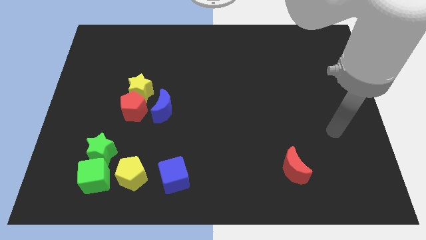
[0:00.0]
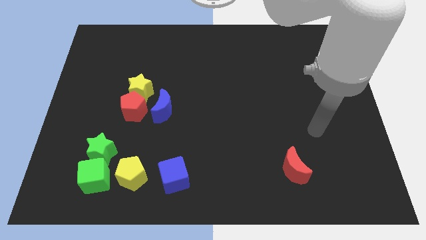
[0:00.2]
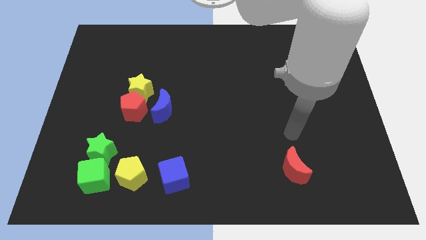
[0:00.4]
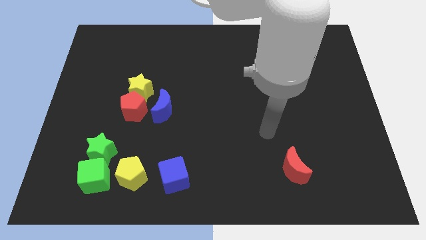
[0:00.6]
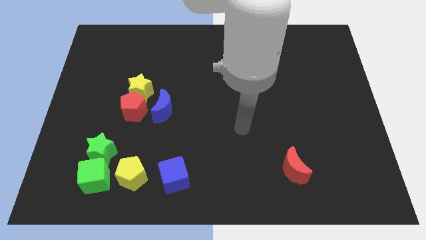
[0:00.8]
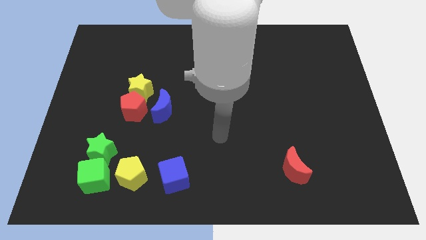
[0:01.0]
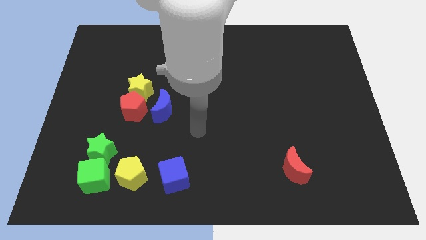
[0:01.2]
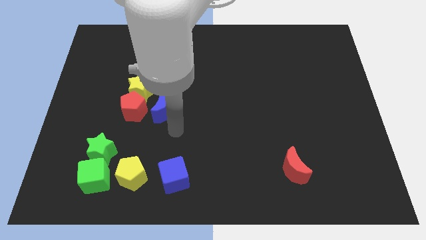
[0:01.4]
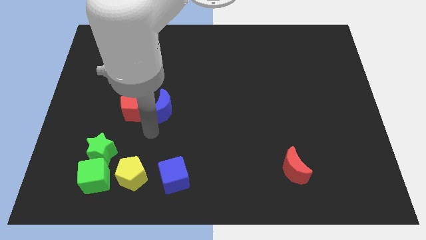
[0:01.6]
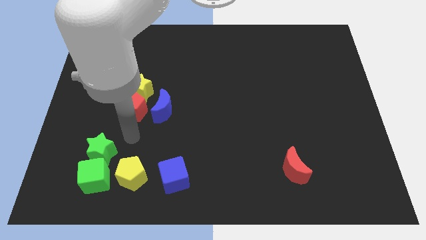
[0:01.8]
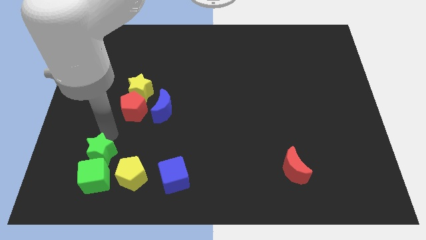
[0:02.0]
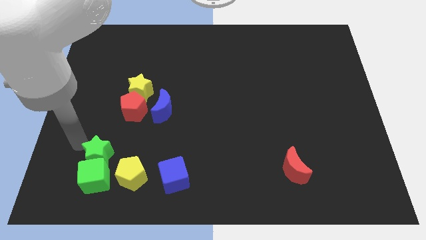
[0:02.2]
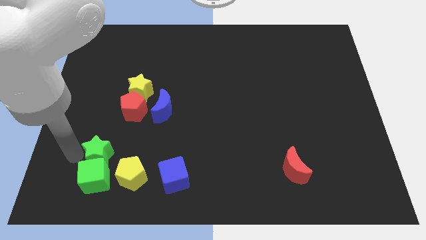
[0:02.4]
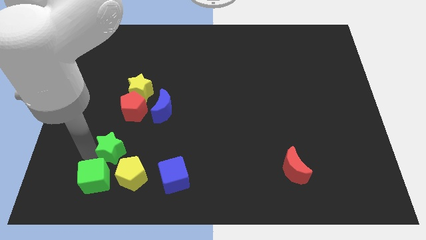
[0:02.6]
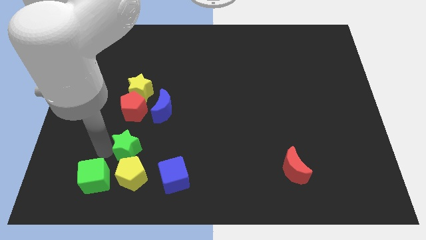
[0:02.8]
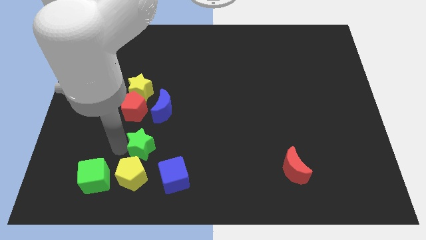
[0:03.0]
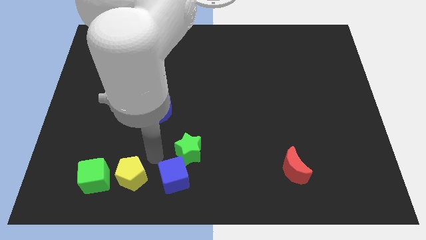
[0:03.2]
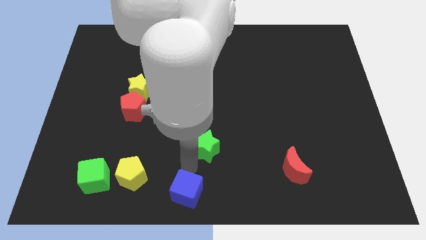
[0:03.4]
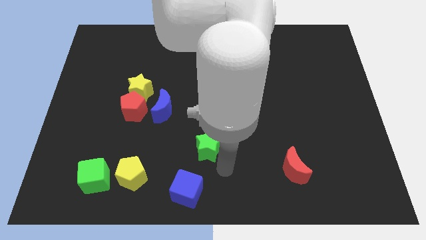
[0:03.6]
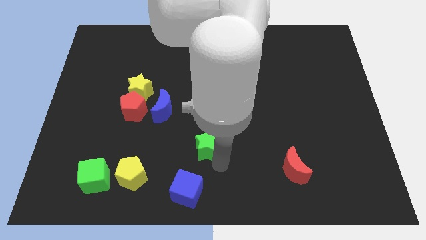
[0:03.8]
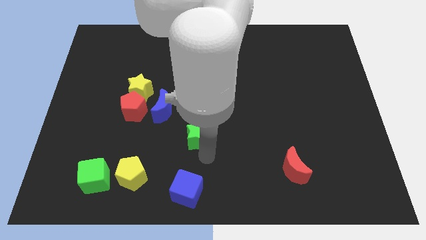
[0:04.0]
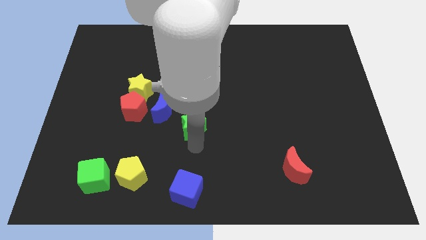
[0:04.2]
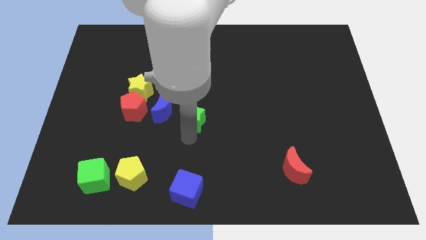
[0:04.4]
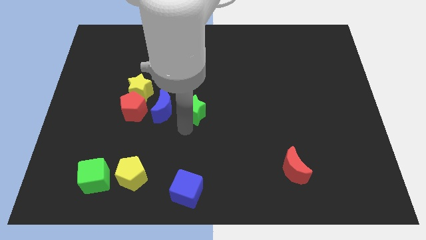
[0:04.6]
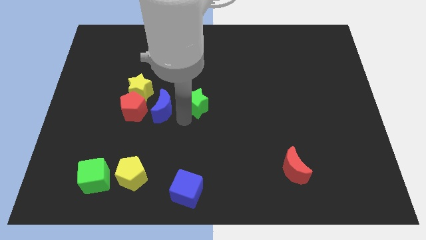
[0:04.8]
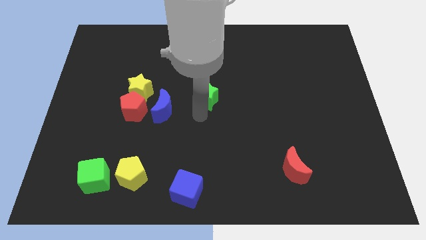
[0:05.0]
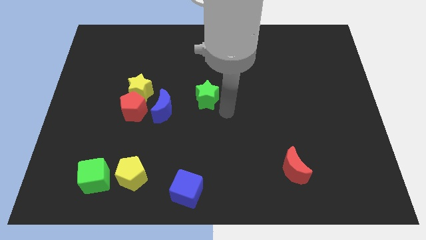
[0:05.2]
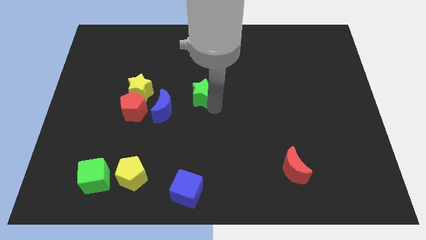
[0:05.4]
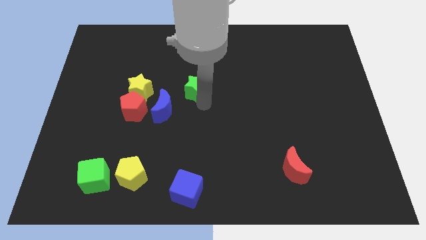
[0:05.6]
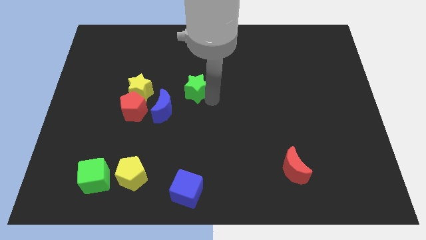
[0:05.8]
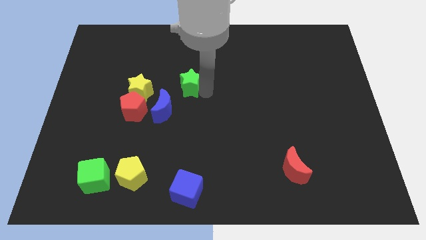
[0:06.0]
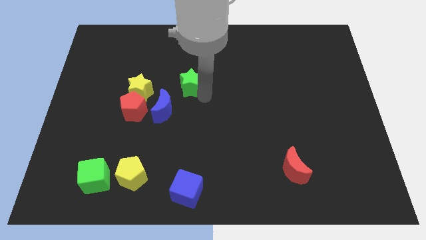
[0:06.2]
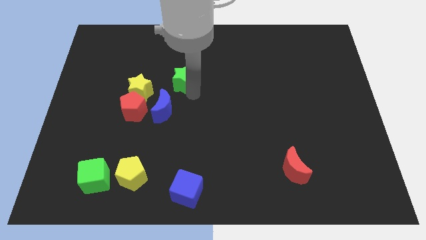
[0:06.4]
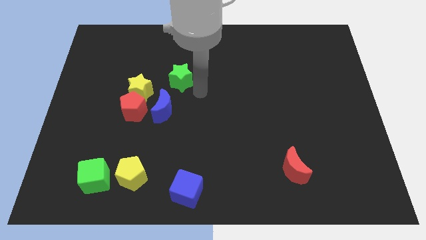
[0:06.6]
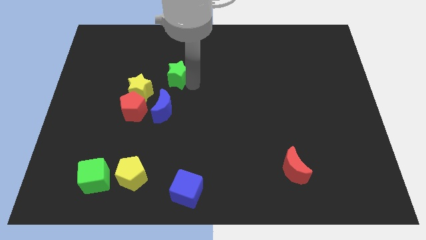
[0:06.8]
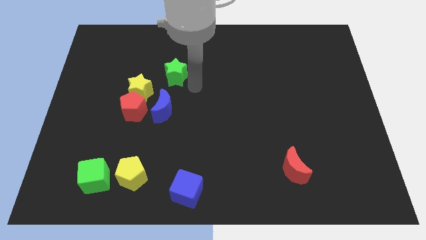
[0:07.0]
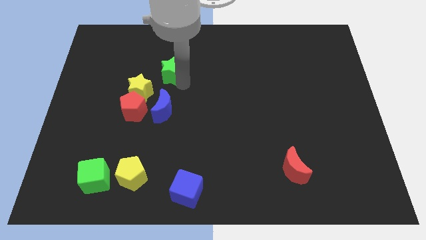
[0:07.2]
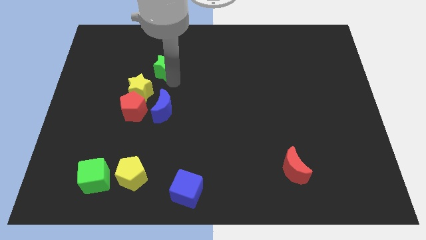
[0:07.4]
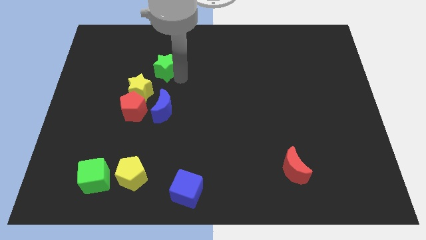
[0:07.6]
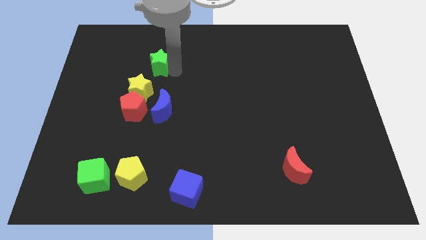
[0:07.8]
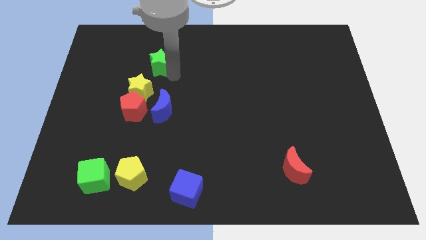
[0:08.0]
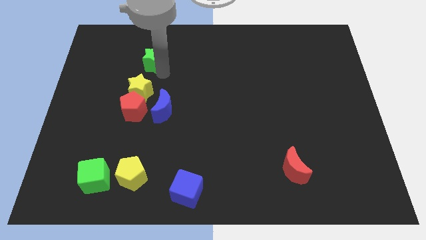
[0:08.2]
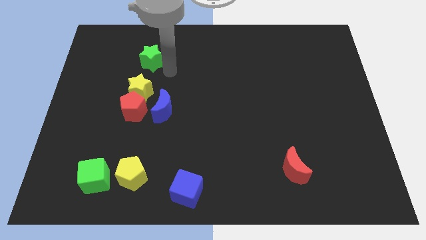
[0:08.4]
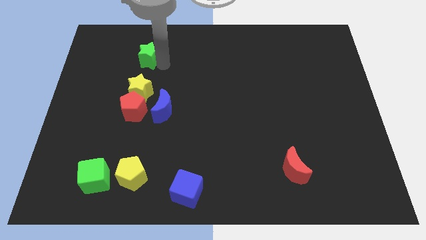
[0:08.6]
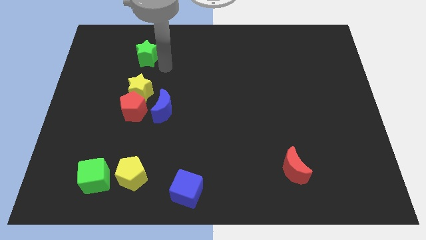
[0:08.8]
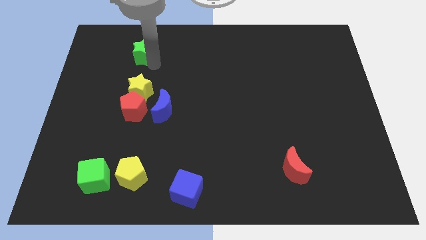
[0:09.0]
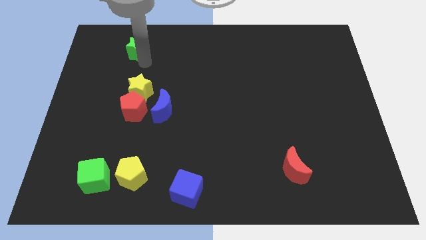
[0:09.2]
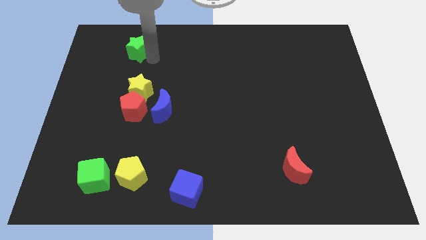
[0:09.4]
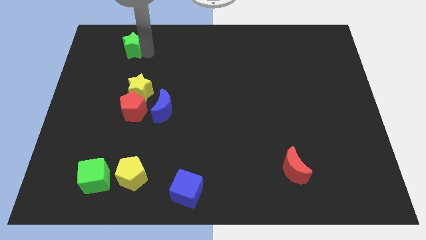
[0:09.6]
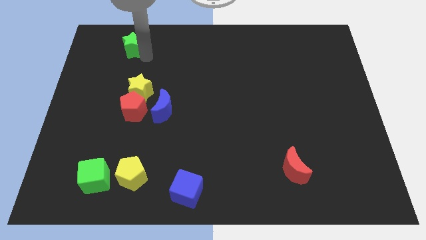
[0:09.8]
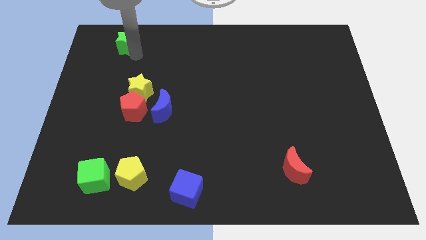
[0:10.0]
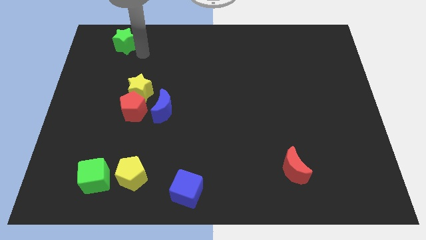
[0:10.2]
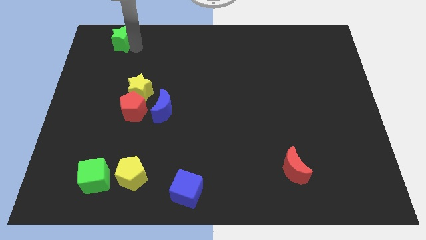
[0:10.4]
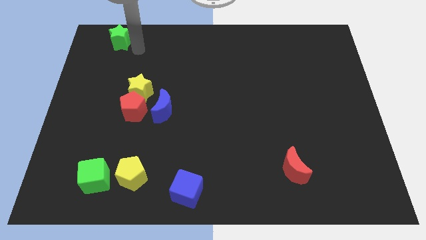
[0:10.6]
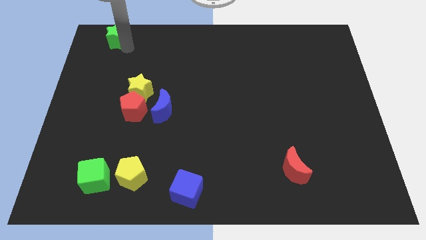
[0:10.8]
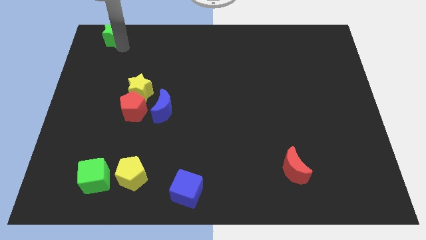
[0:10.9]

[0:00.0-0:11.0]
put the green star to the top left of the board

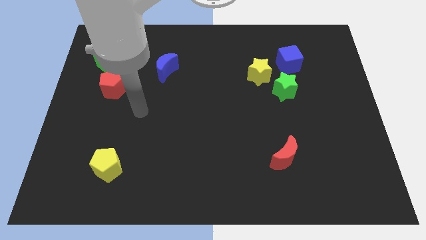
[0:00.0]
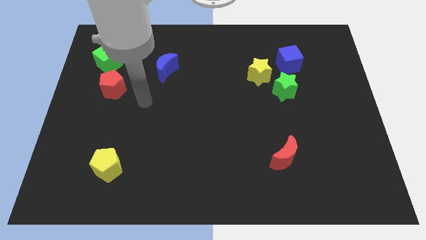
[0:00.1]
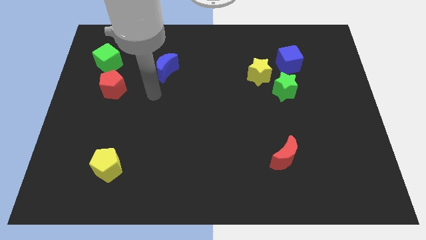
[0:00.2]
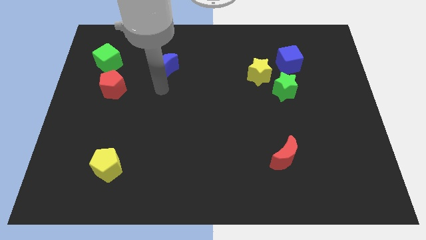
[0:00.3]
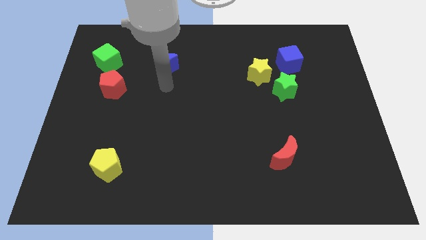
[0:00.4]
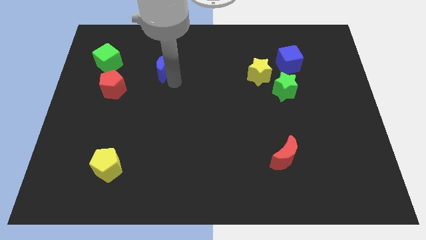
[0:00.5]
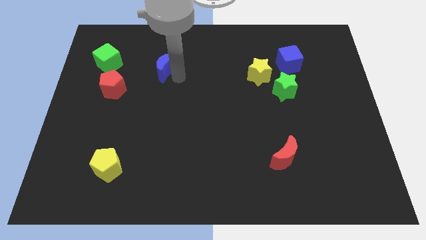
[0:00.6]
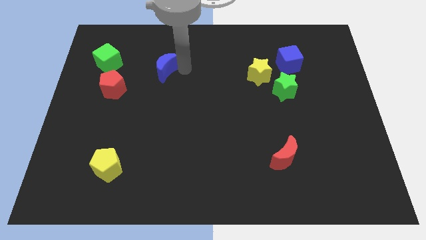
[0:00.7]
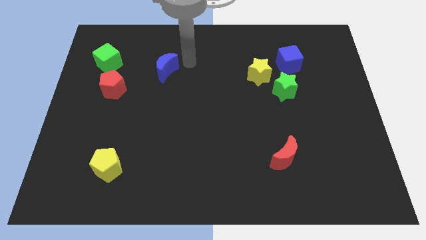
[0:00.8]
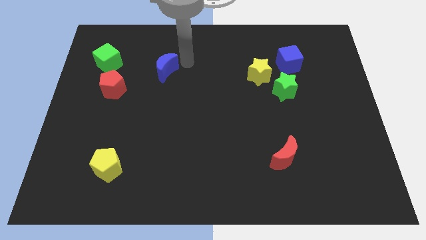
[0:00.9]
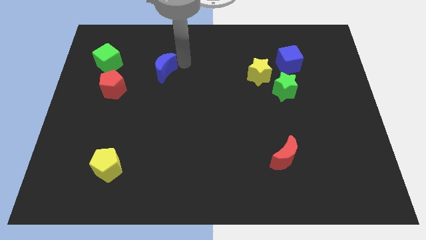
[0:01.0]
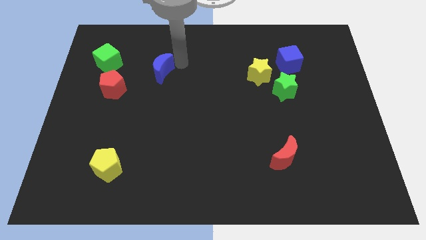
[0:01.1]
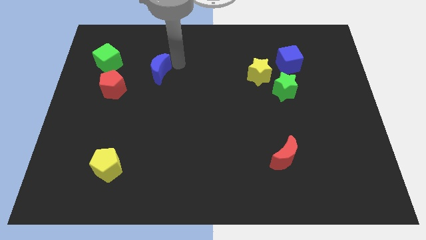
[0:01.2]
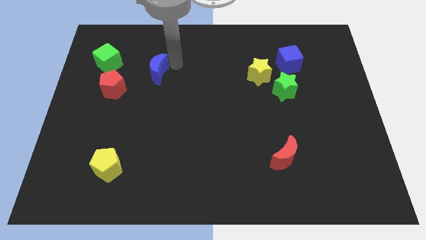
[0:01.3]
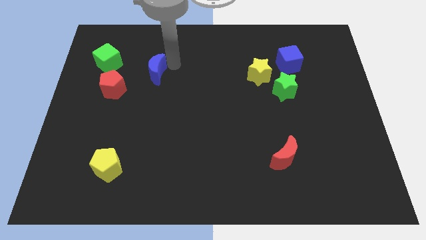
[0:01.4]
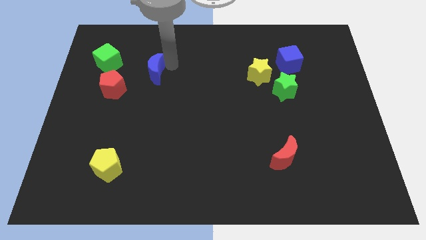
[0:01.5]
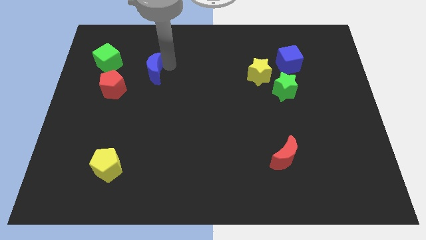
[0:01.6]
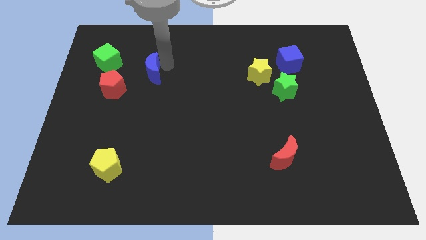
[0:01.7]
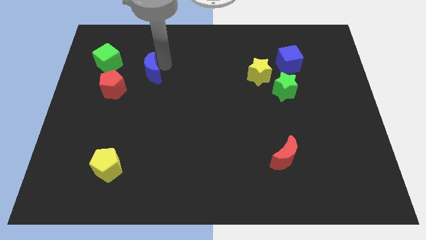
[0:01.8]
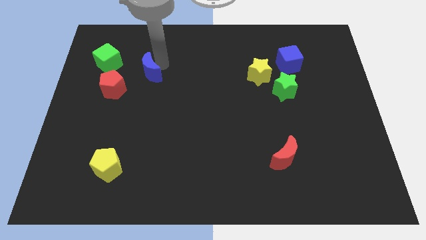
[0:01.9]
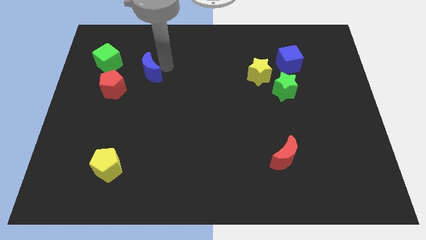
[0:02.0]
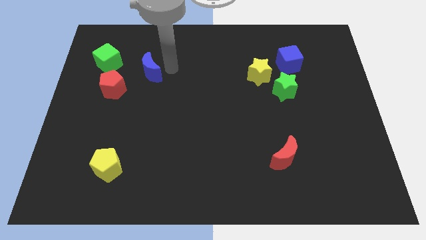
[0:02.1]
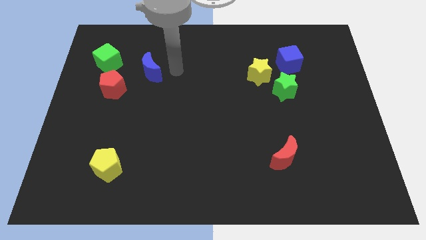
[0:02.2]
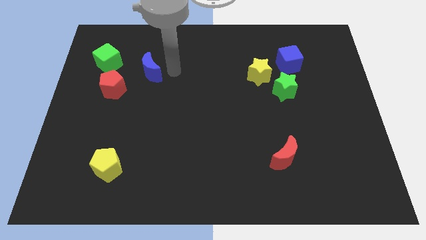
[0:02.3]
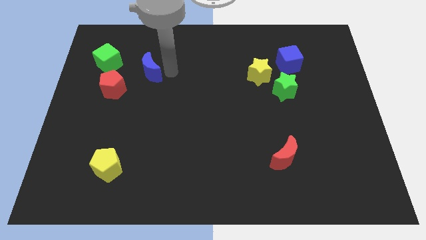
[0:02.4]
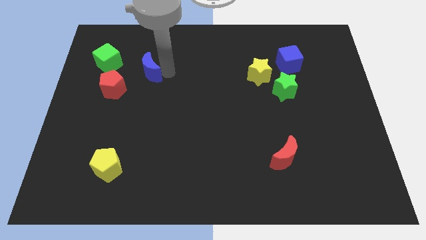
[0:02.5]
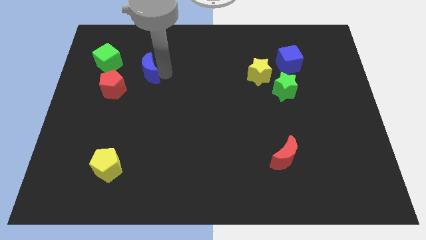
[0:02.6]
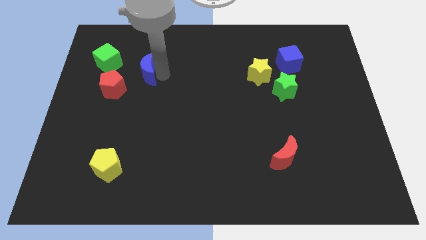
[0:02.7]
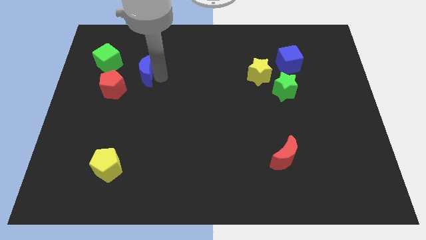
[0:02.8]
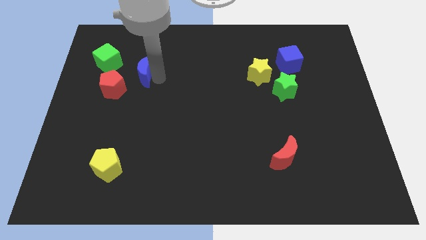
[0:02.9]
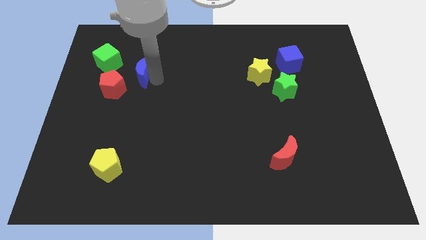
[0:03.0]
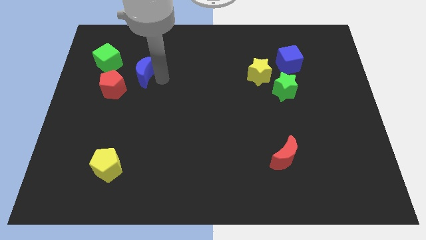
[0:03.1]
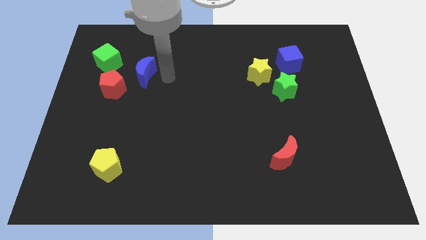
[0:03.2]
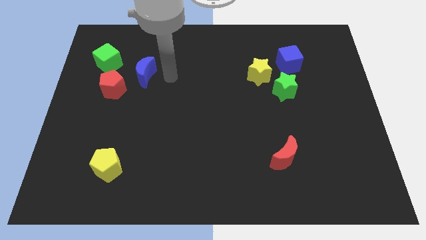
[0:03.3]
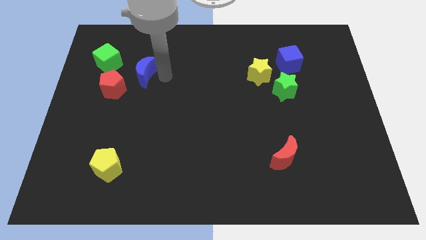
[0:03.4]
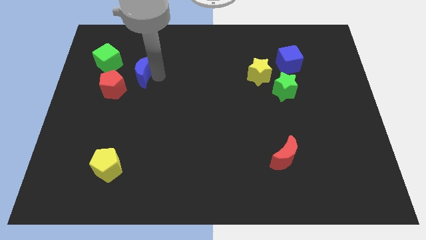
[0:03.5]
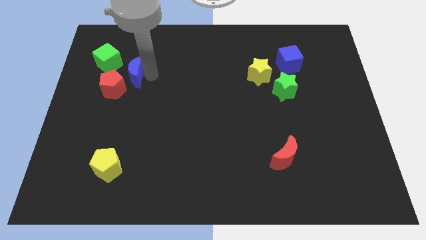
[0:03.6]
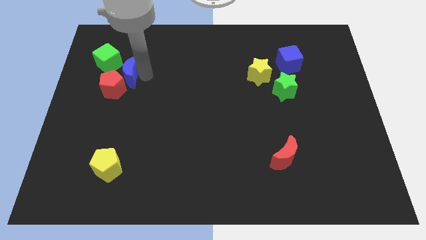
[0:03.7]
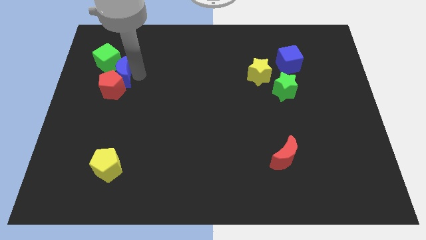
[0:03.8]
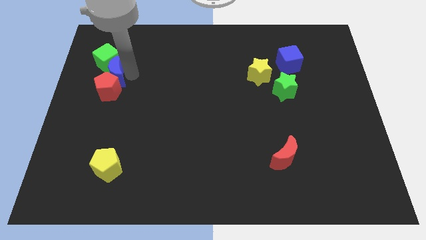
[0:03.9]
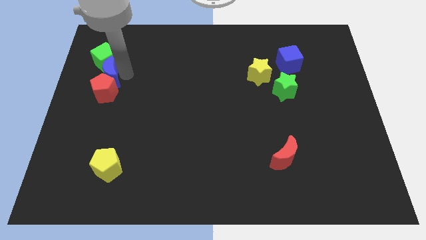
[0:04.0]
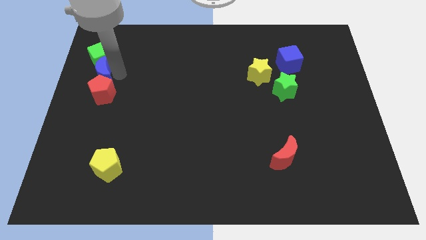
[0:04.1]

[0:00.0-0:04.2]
put the blue moon to the left side of the board
